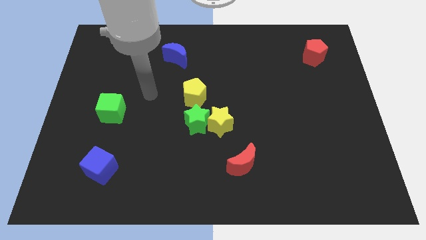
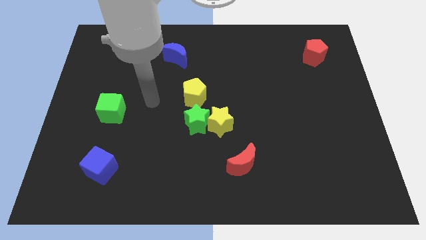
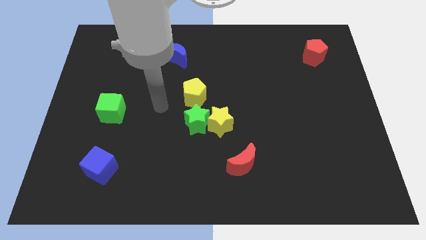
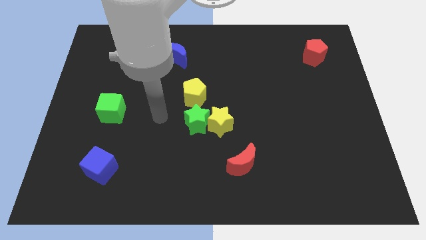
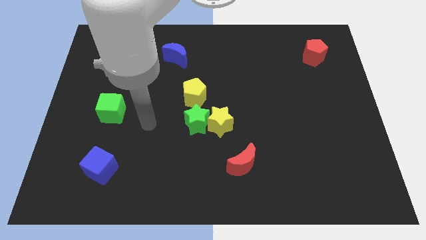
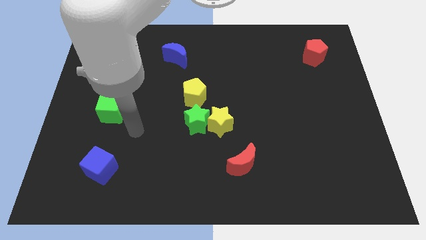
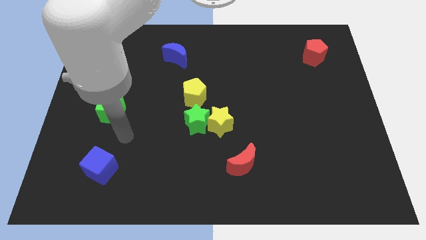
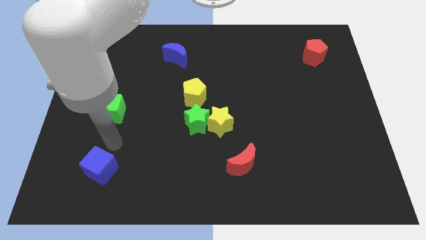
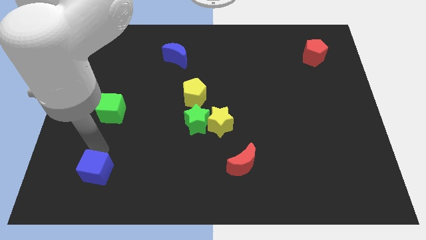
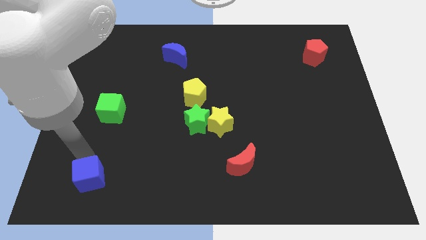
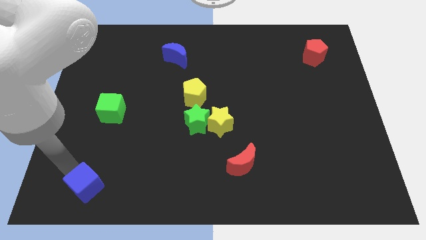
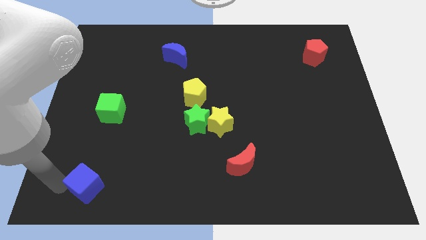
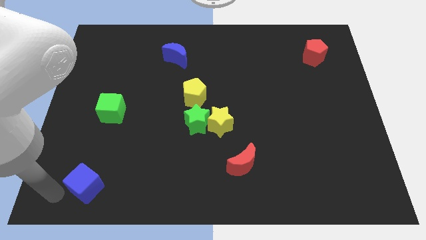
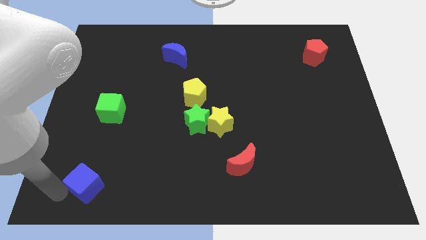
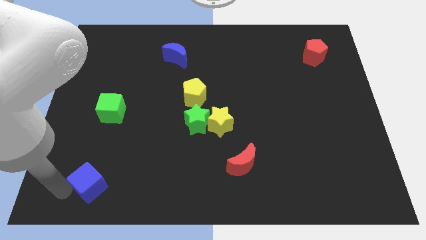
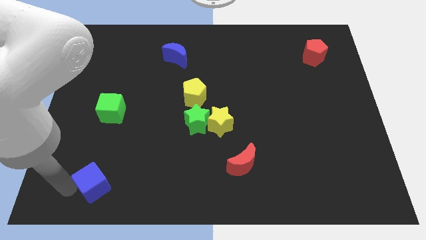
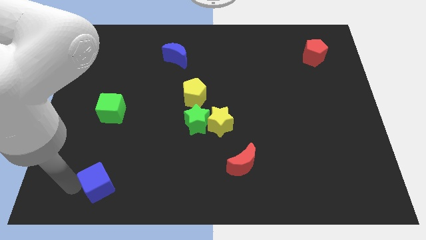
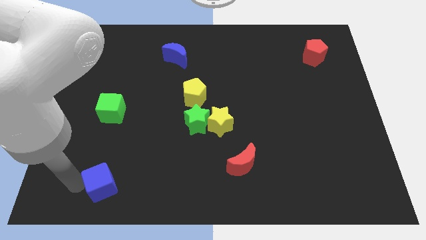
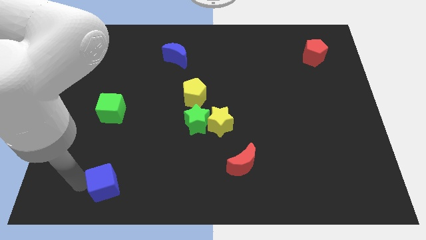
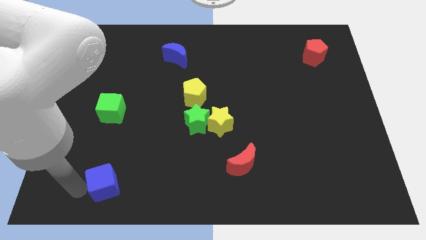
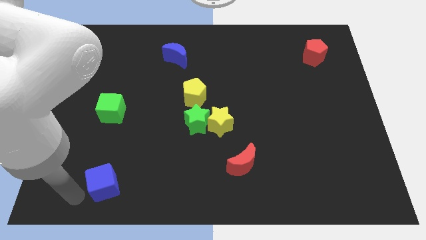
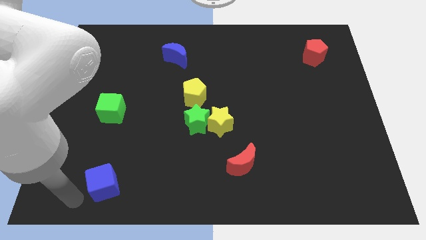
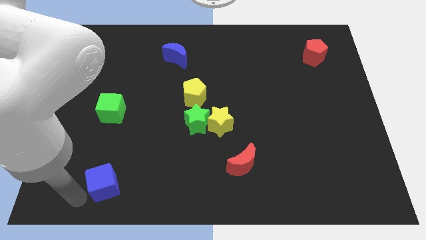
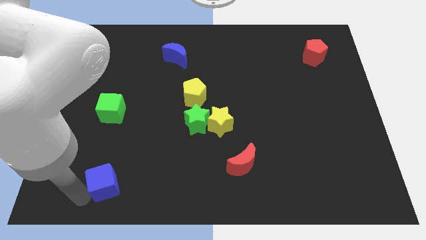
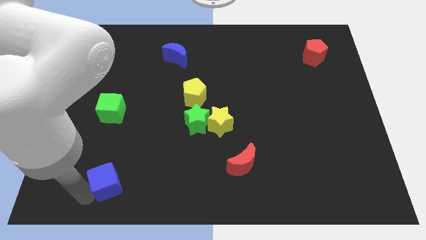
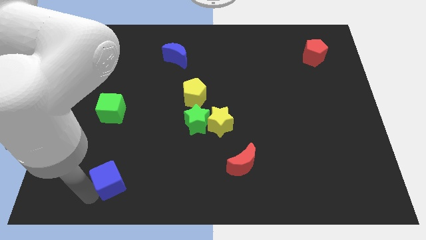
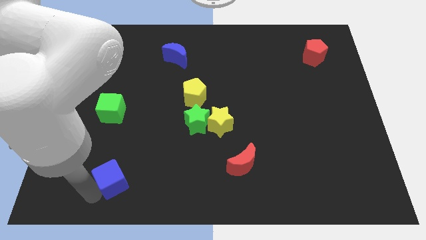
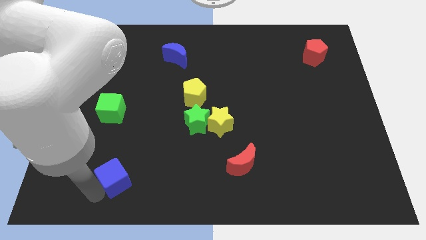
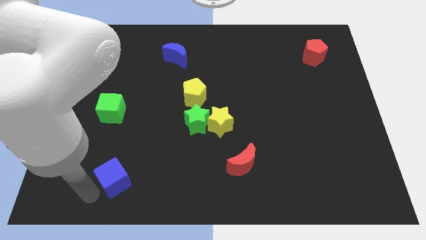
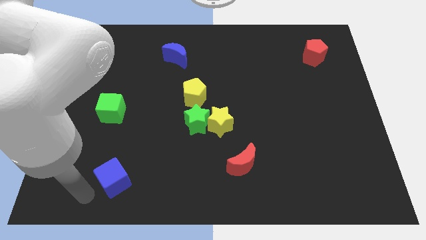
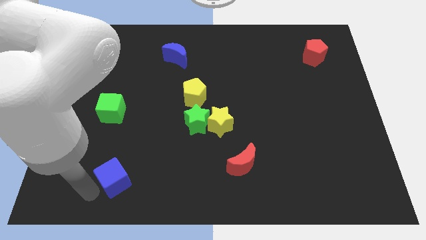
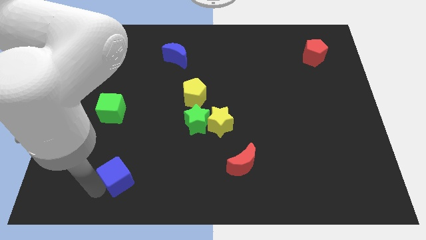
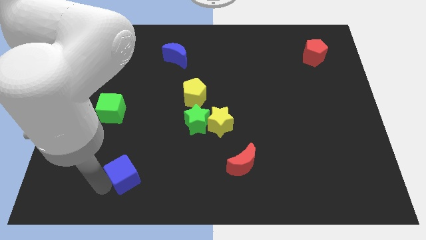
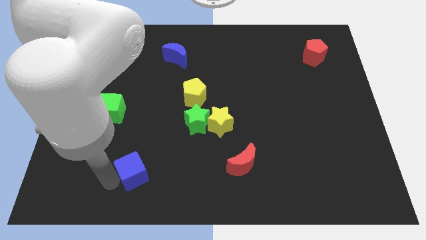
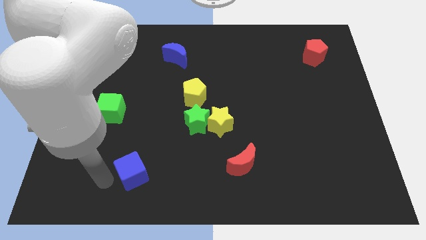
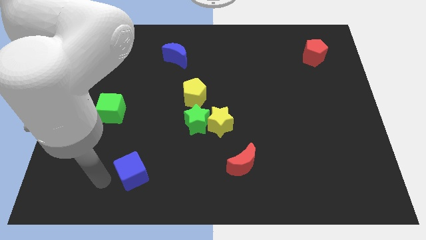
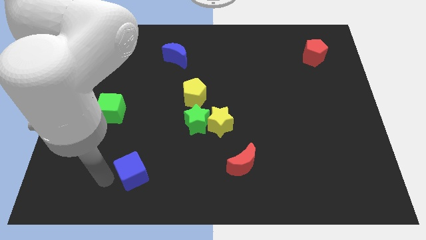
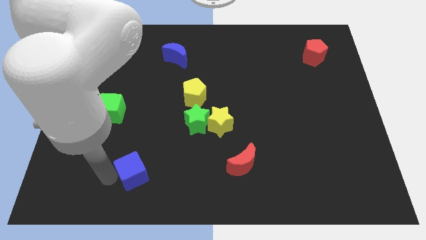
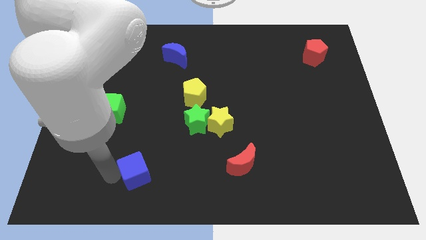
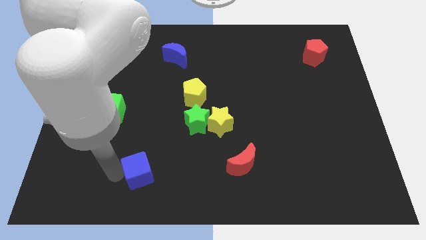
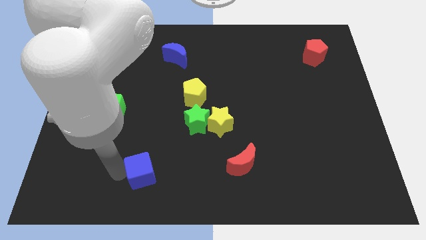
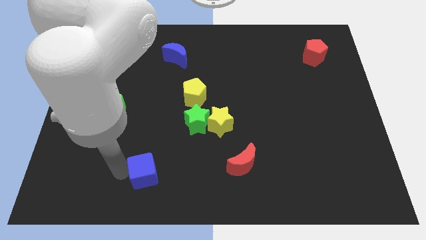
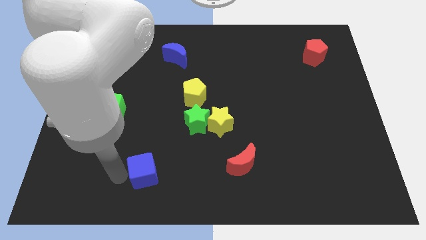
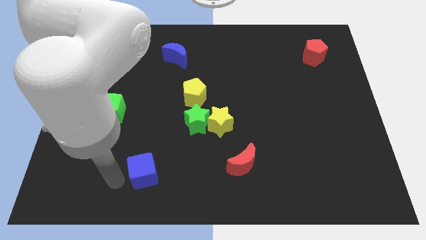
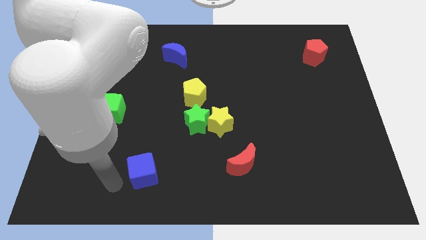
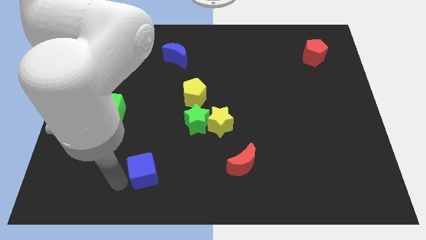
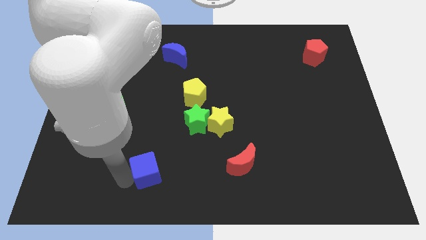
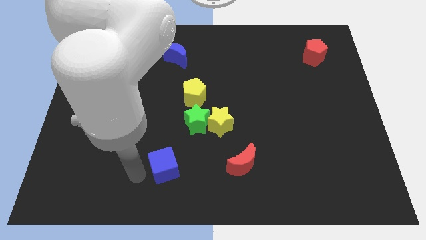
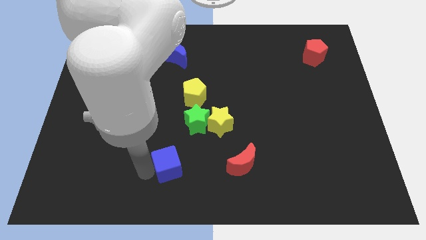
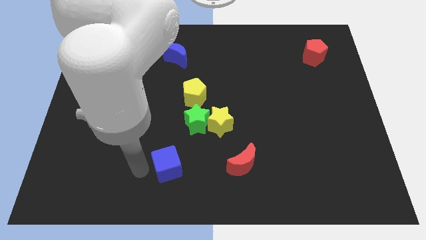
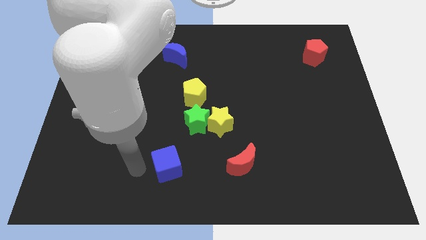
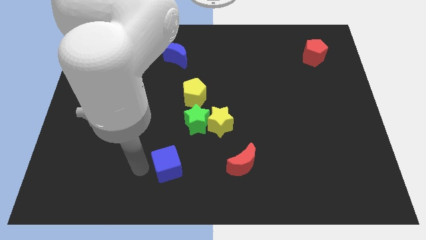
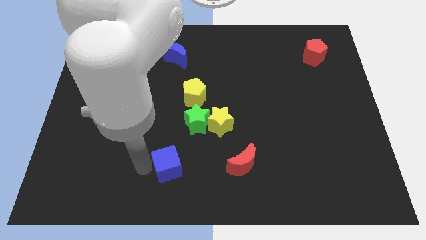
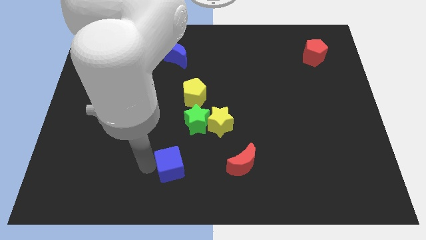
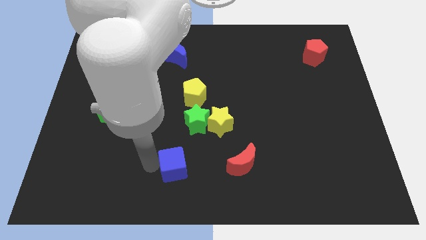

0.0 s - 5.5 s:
put the blue cube to the bottom of the green star

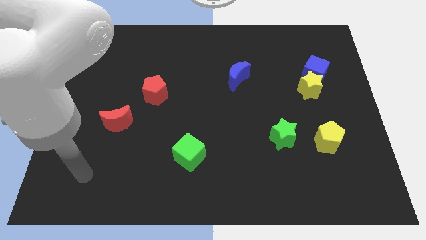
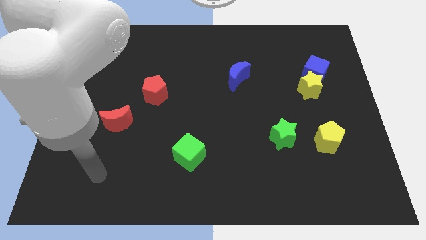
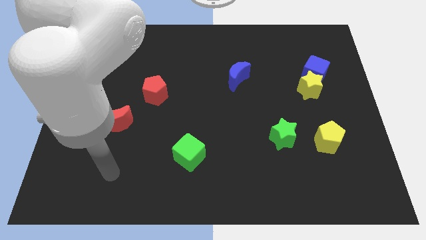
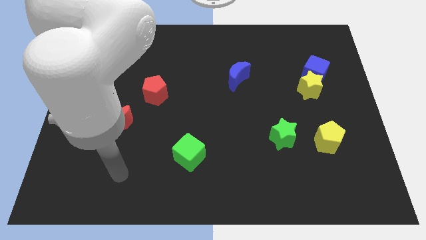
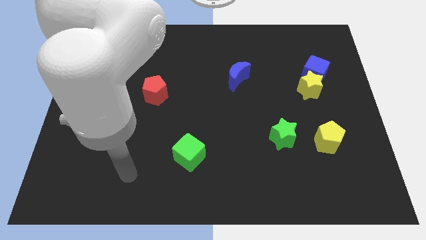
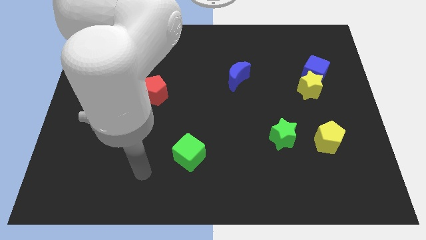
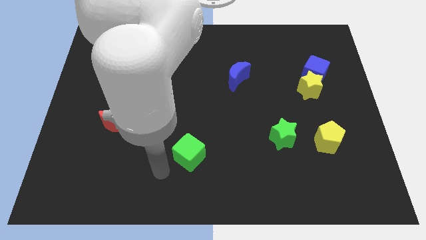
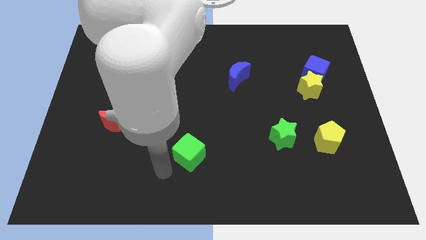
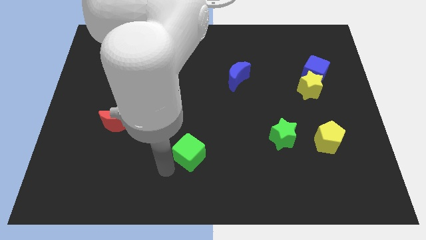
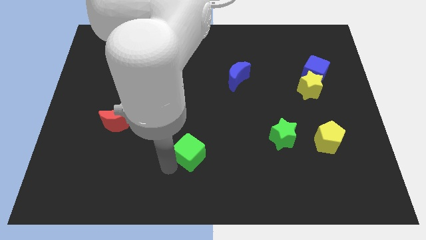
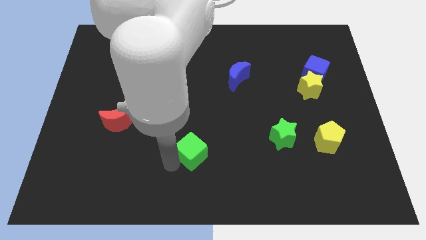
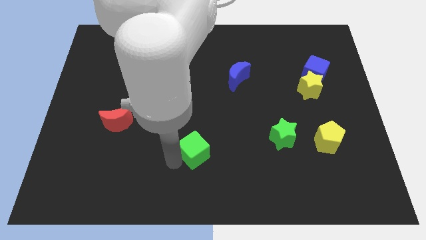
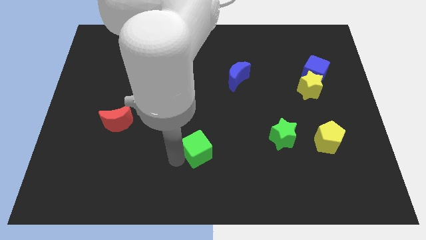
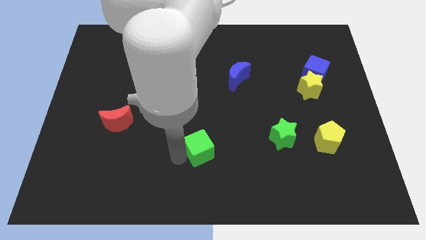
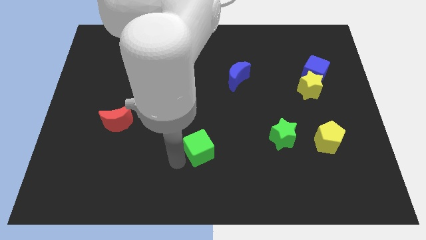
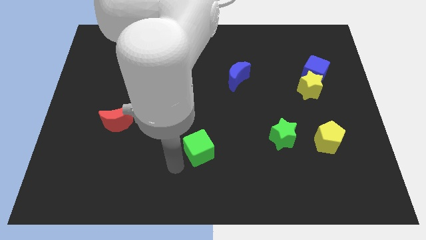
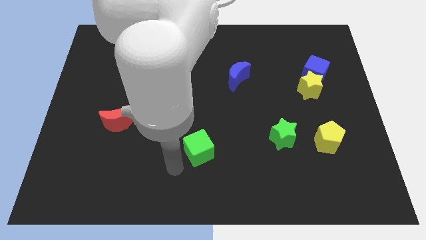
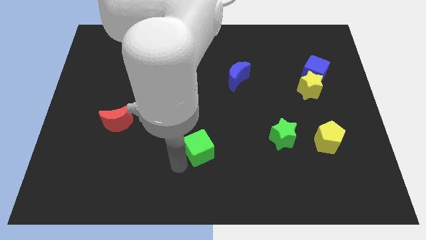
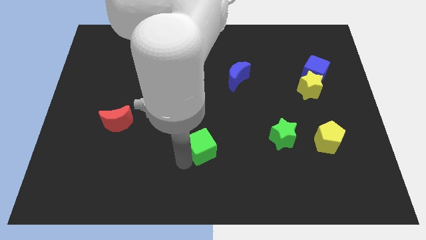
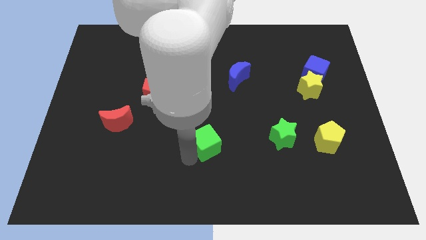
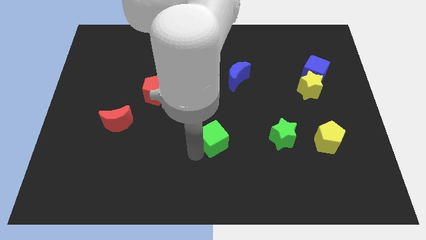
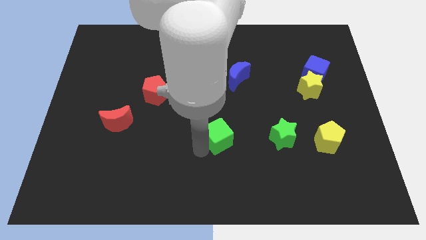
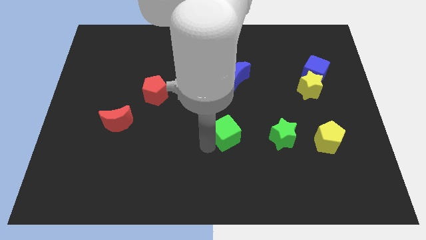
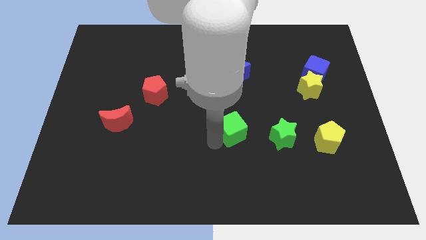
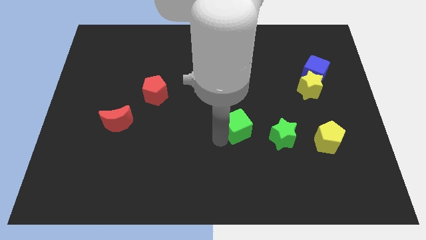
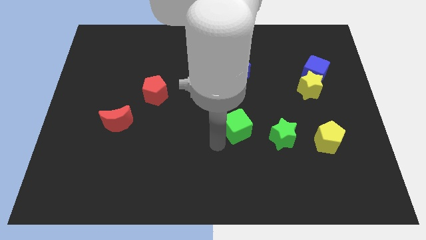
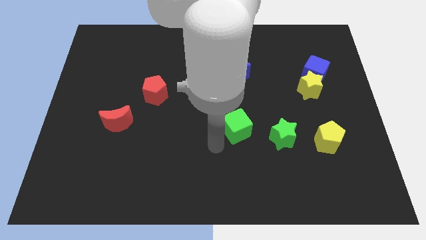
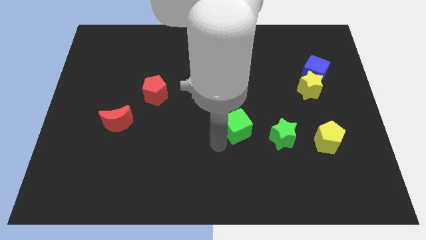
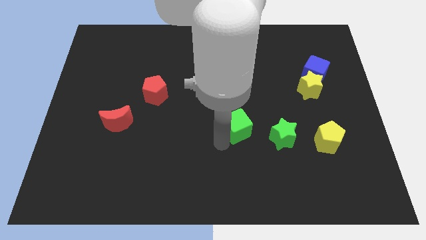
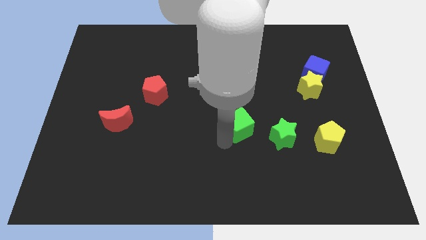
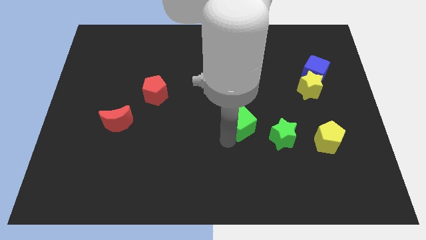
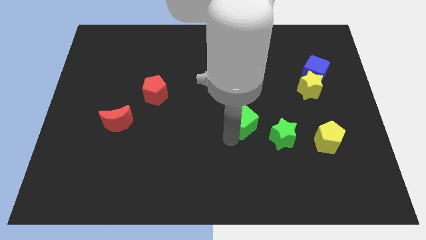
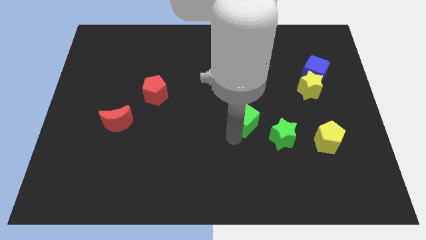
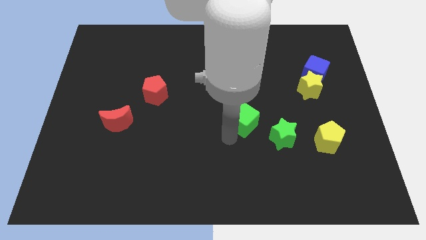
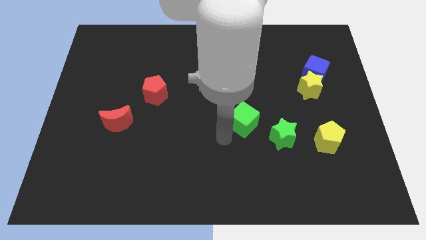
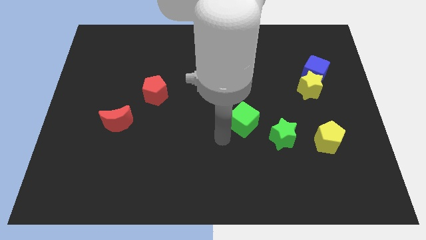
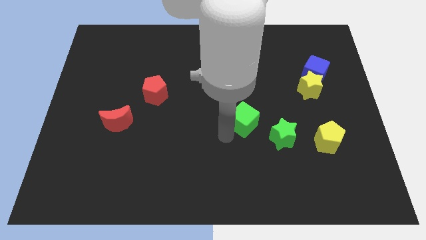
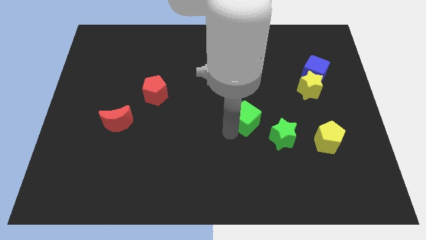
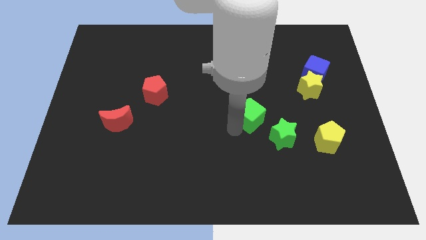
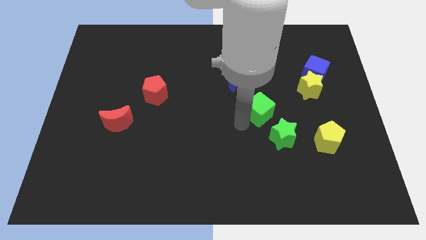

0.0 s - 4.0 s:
slide the green cube to the top side of the green star
